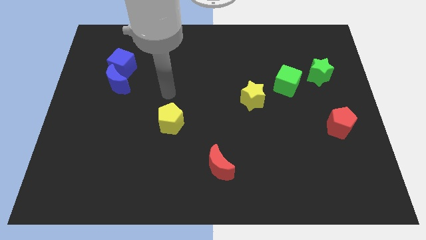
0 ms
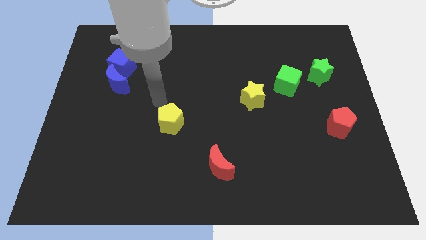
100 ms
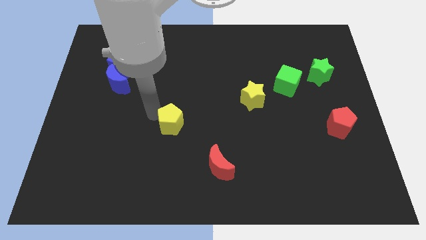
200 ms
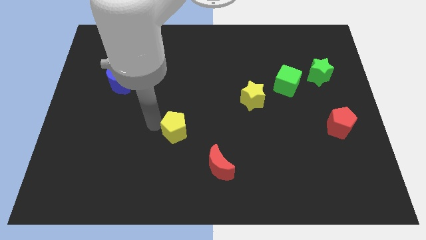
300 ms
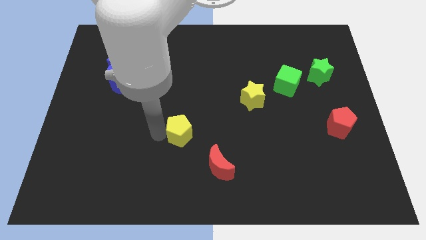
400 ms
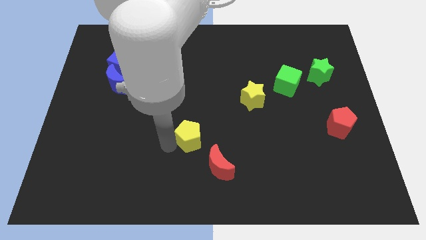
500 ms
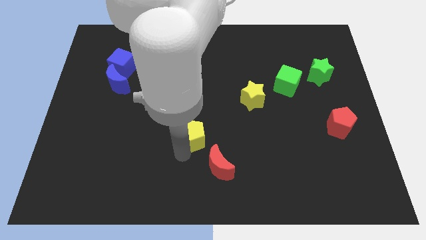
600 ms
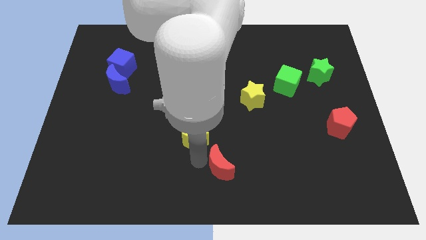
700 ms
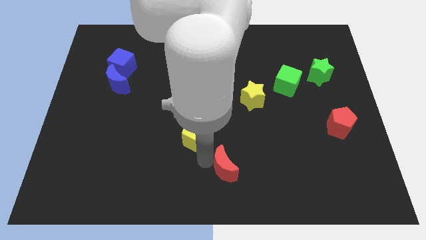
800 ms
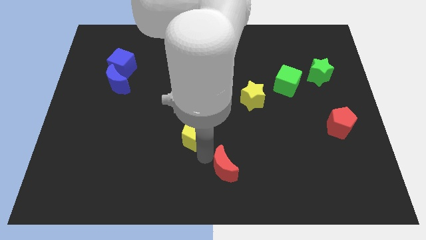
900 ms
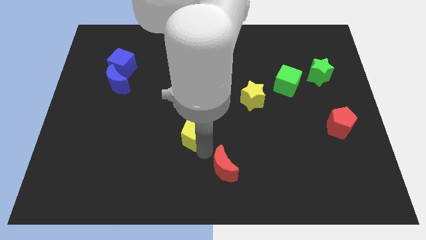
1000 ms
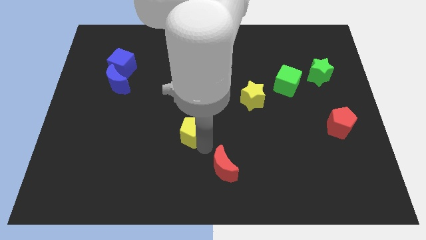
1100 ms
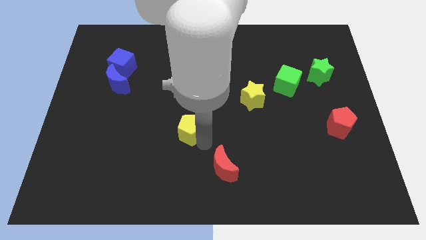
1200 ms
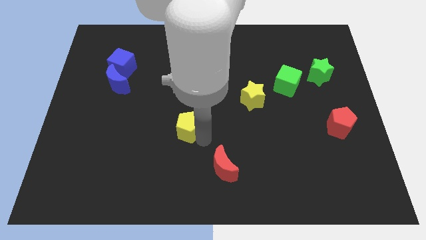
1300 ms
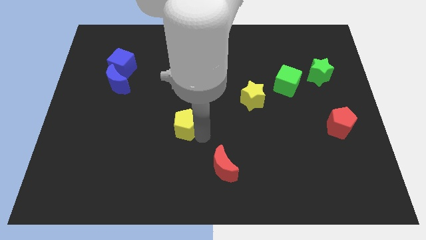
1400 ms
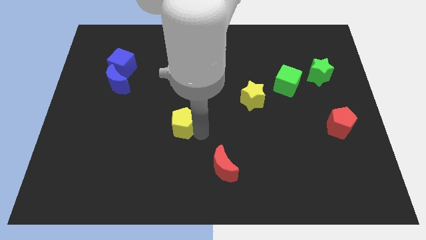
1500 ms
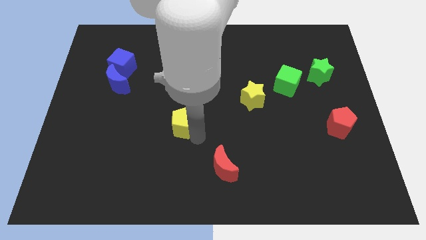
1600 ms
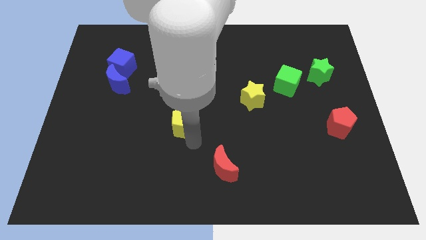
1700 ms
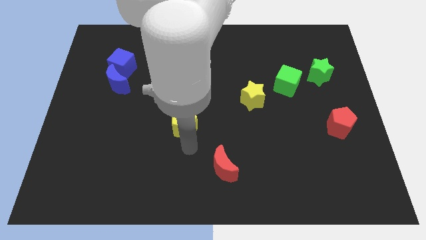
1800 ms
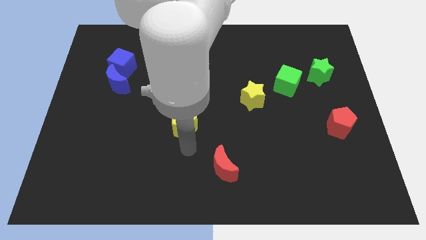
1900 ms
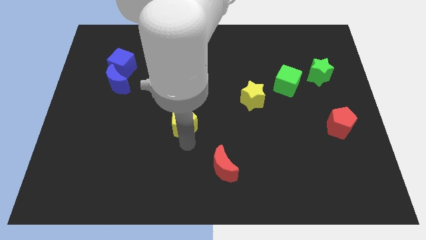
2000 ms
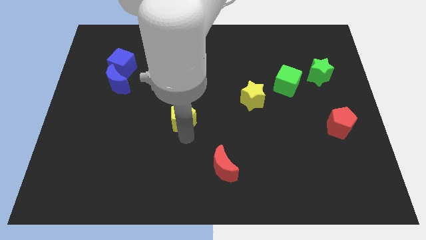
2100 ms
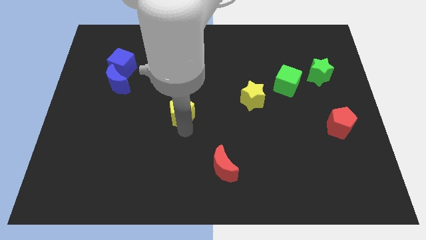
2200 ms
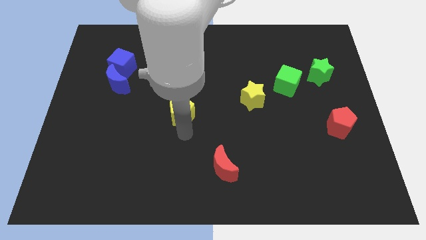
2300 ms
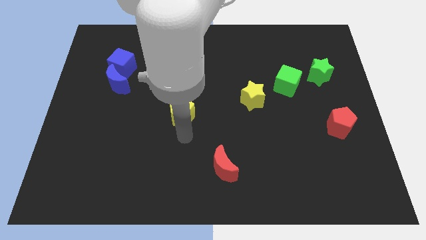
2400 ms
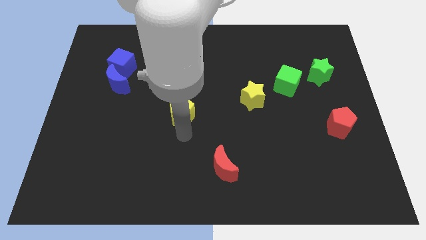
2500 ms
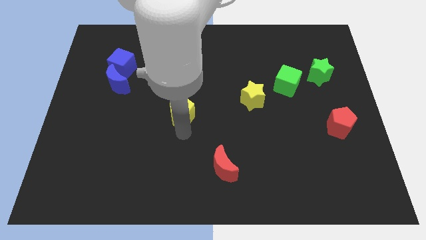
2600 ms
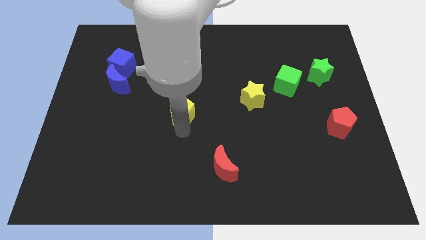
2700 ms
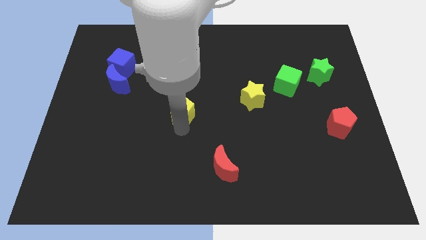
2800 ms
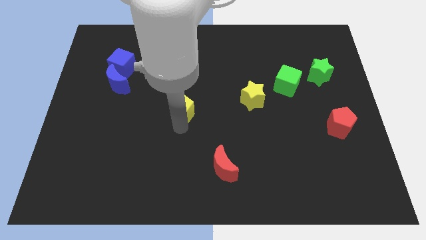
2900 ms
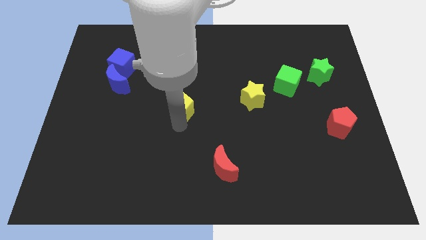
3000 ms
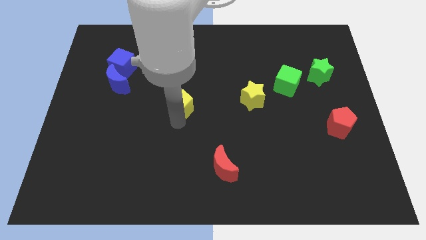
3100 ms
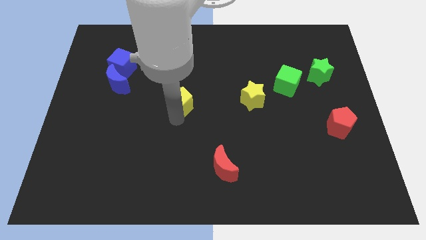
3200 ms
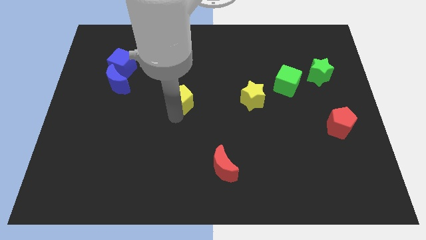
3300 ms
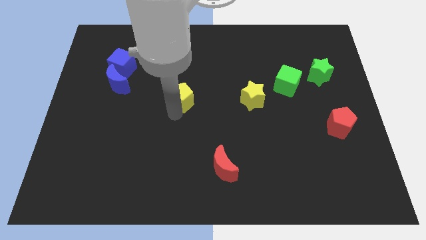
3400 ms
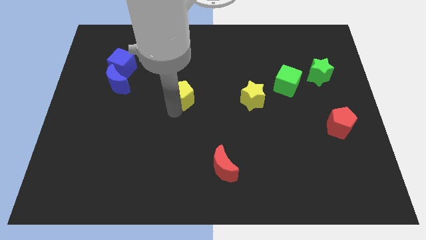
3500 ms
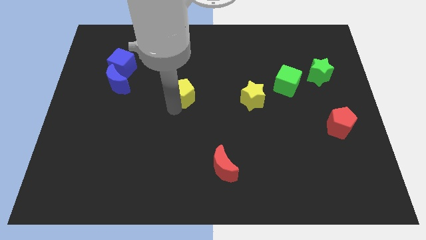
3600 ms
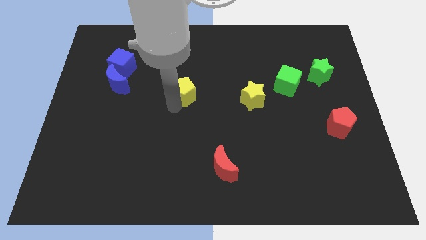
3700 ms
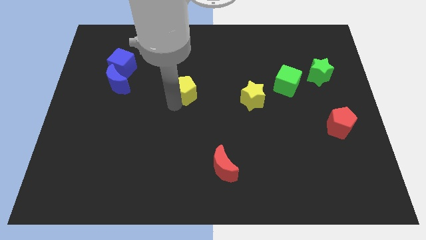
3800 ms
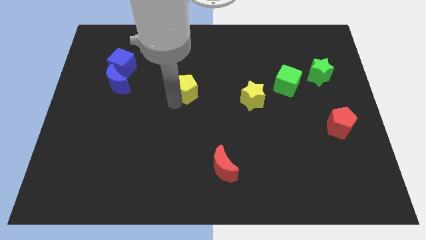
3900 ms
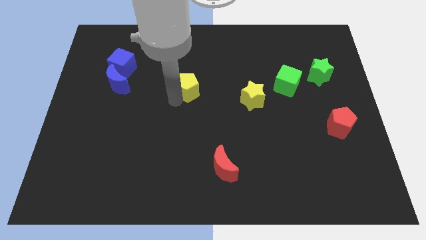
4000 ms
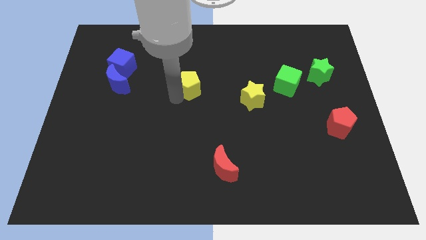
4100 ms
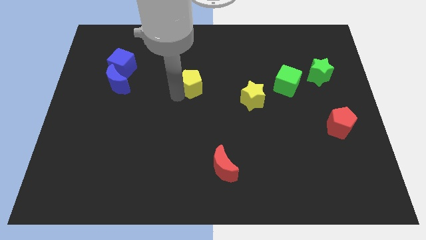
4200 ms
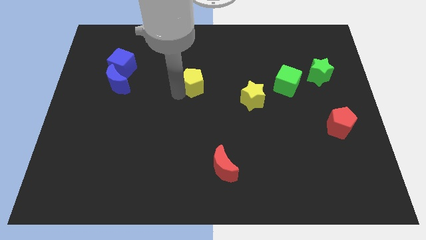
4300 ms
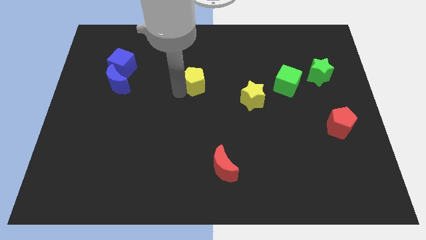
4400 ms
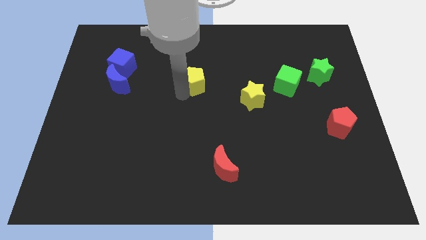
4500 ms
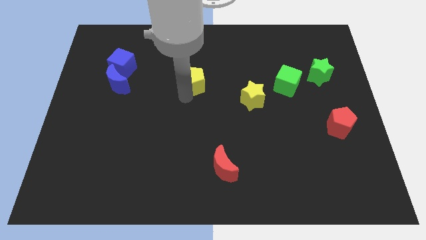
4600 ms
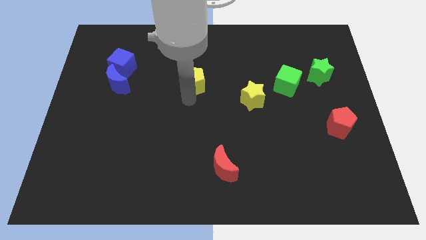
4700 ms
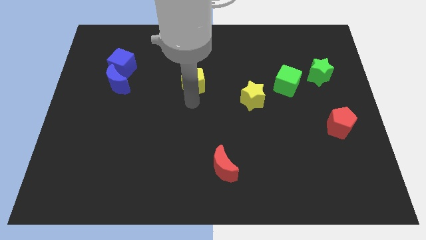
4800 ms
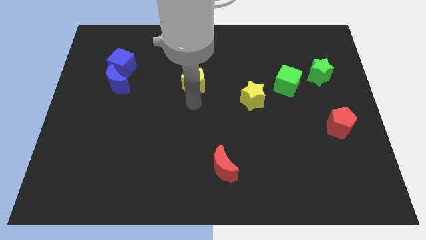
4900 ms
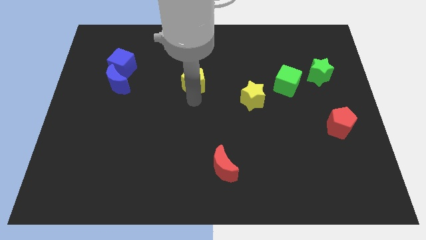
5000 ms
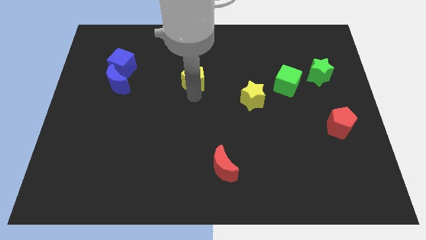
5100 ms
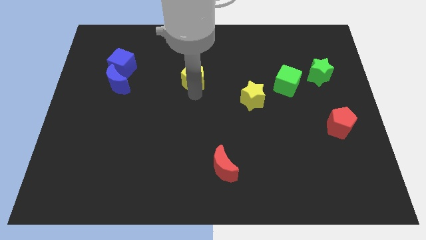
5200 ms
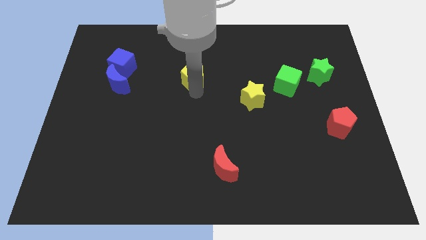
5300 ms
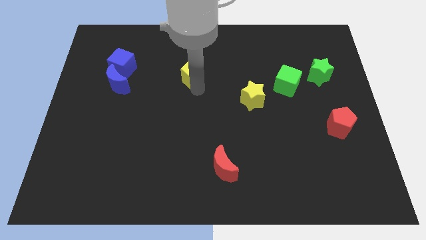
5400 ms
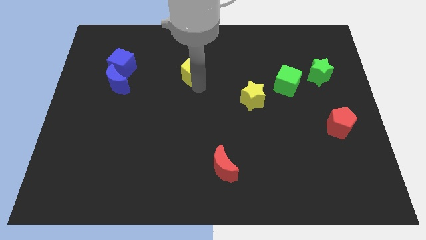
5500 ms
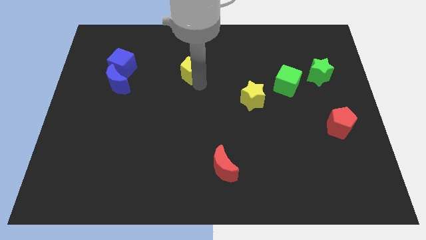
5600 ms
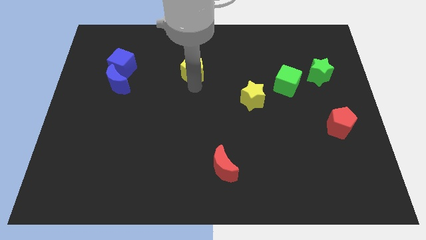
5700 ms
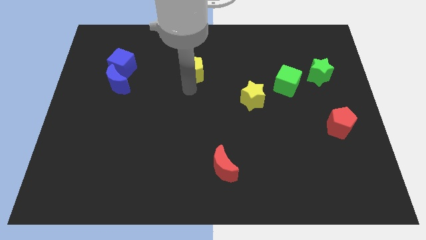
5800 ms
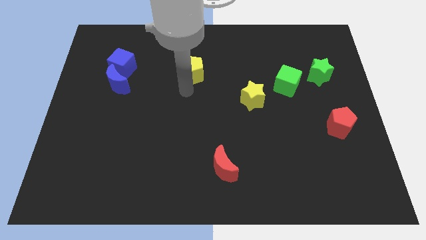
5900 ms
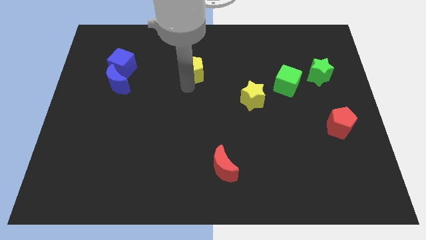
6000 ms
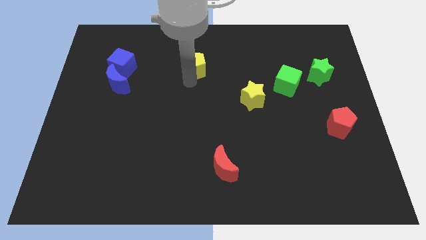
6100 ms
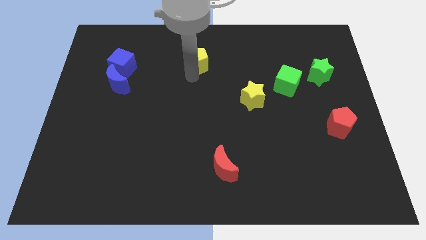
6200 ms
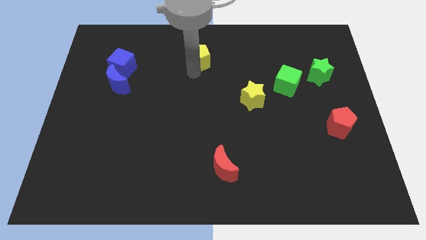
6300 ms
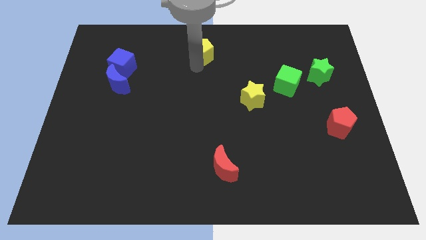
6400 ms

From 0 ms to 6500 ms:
slide the yellow pentagon to the top
